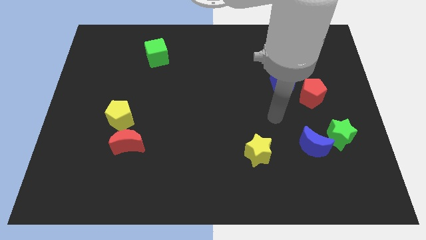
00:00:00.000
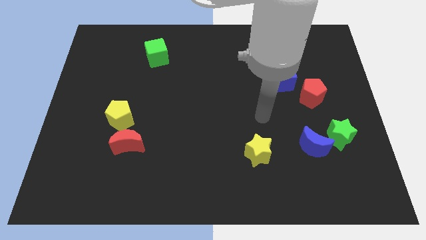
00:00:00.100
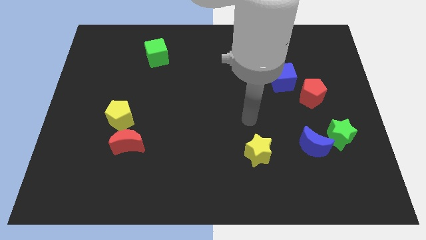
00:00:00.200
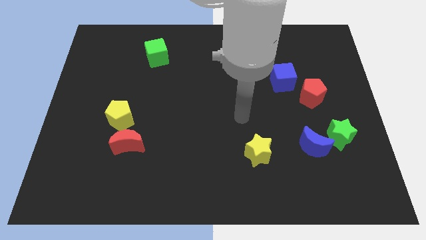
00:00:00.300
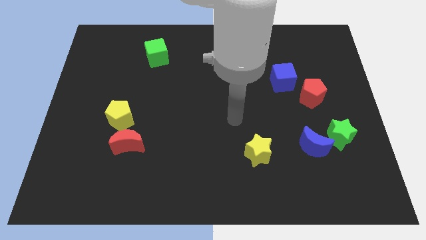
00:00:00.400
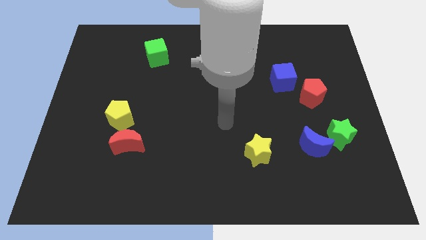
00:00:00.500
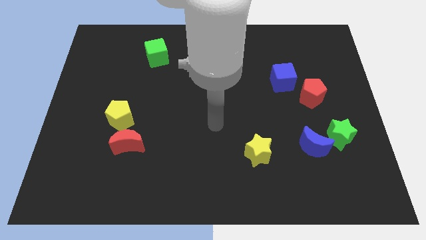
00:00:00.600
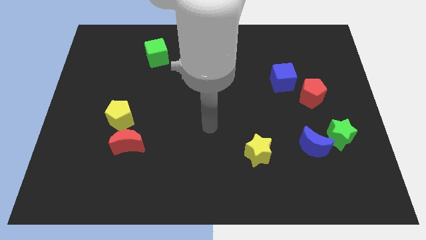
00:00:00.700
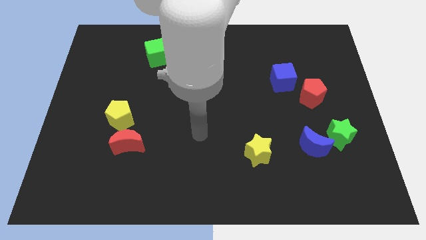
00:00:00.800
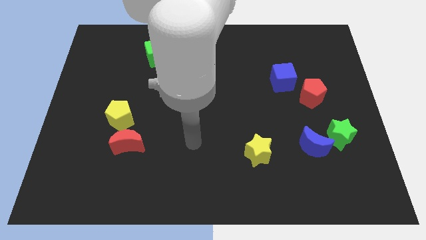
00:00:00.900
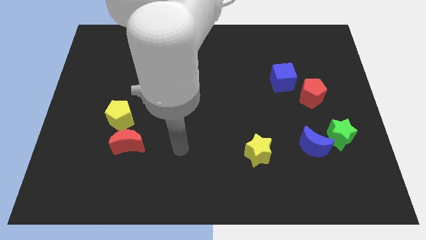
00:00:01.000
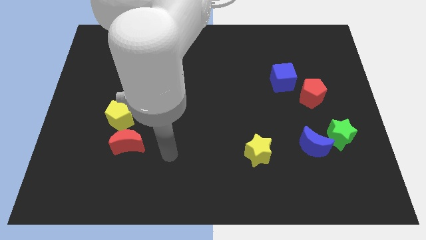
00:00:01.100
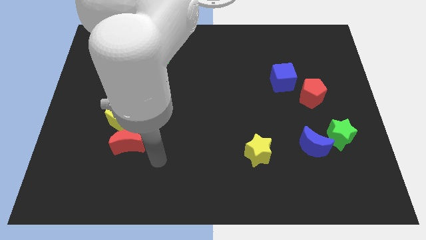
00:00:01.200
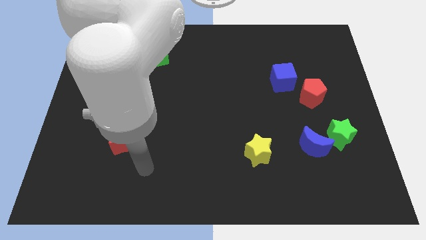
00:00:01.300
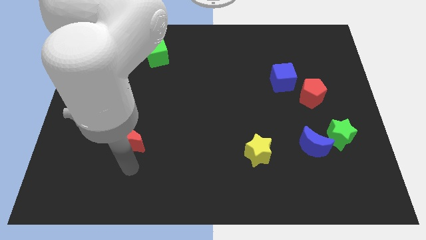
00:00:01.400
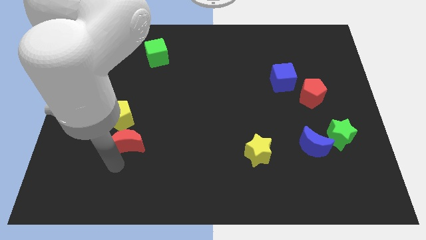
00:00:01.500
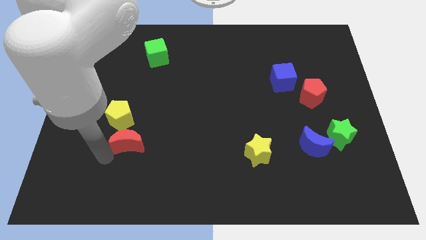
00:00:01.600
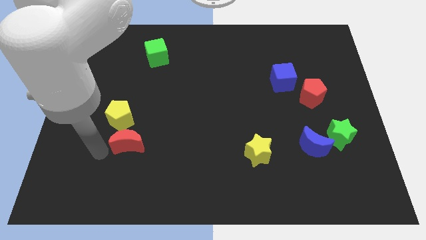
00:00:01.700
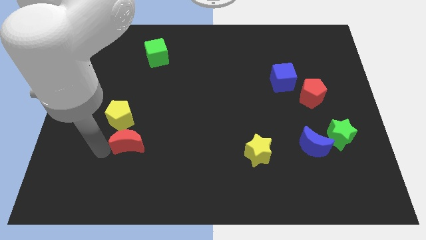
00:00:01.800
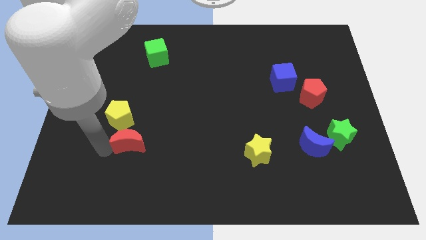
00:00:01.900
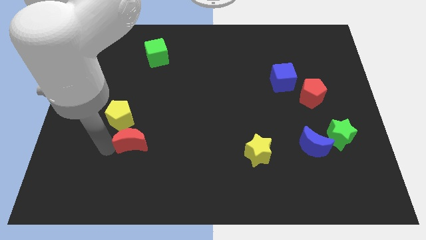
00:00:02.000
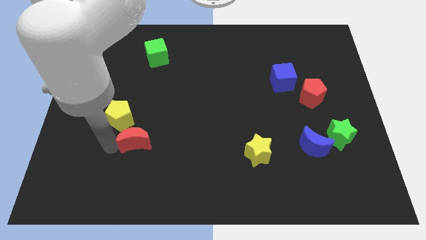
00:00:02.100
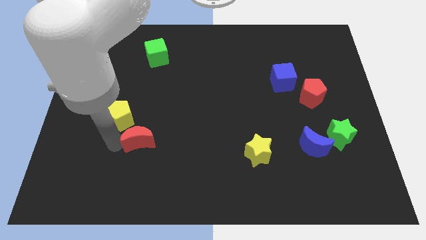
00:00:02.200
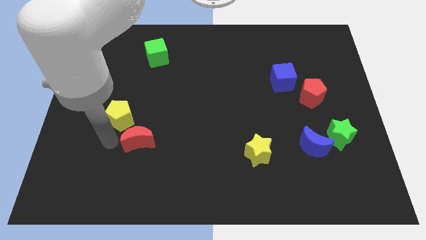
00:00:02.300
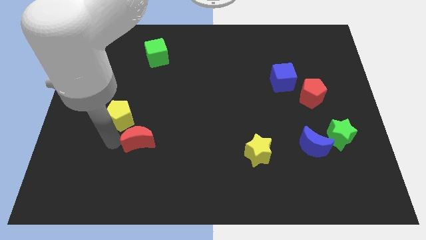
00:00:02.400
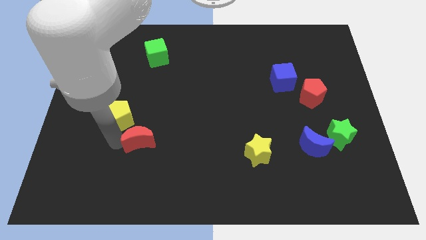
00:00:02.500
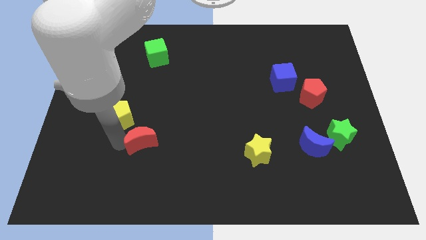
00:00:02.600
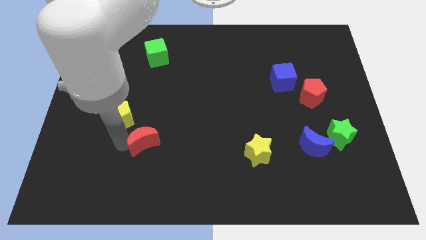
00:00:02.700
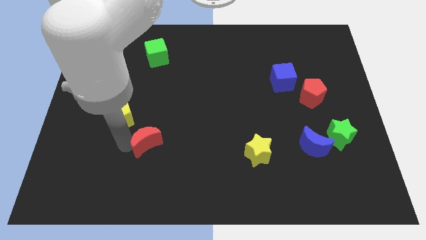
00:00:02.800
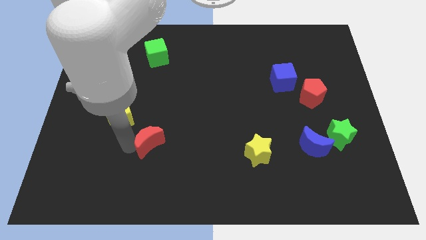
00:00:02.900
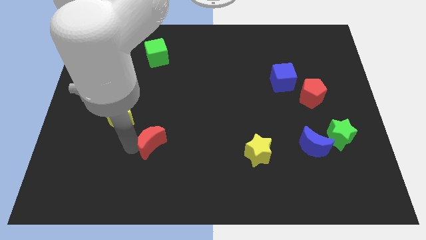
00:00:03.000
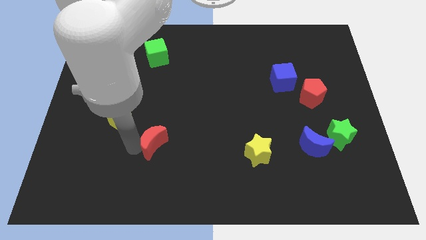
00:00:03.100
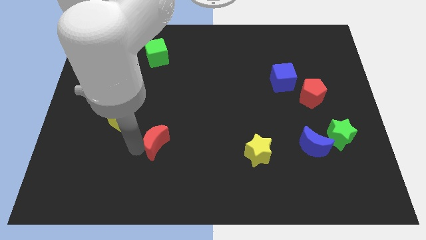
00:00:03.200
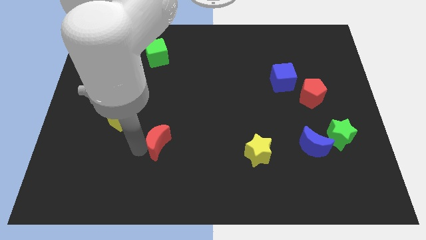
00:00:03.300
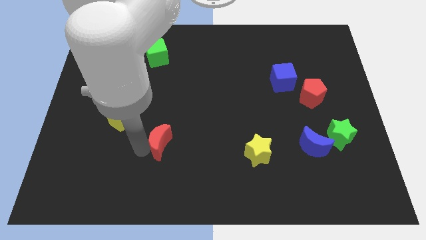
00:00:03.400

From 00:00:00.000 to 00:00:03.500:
slightly slide the red moon right

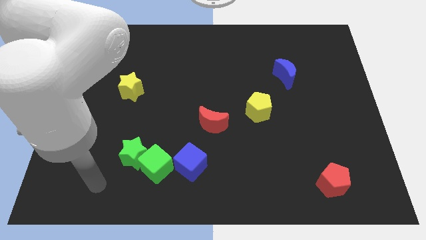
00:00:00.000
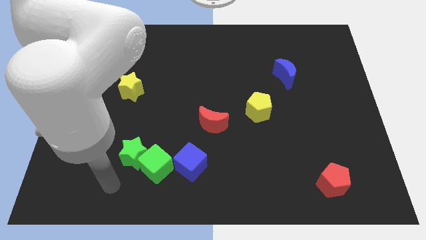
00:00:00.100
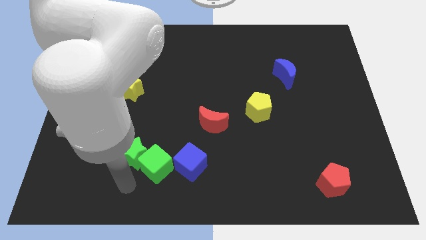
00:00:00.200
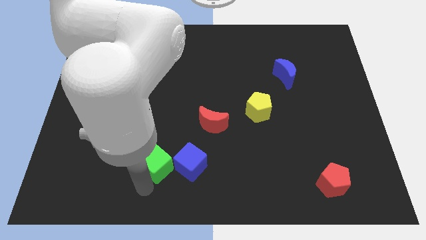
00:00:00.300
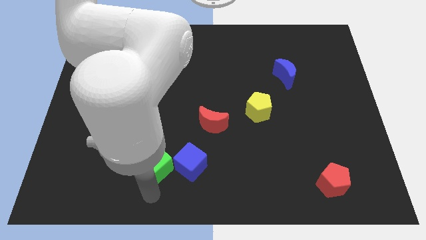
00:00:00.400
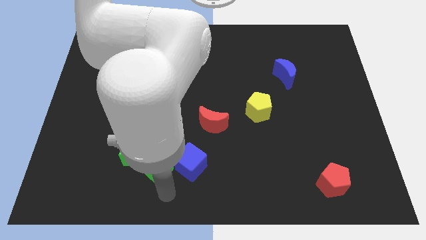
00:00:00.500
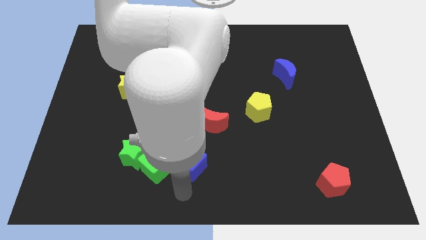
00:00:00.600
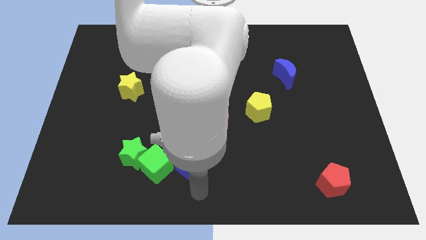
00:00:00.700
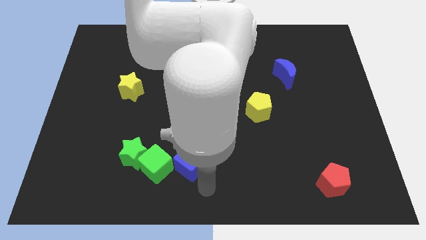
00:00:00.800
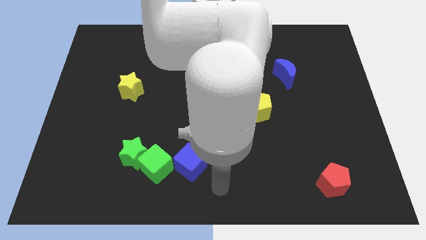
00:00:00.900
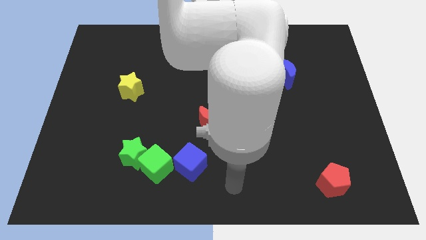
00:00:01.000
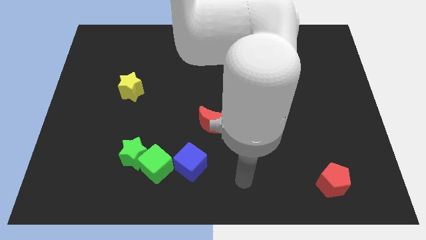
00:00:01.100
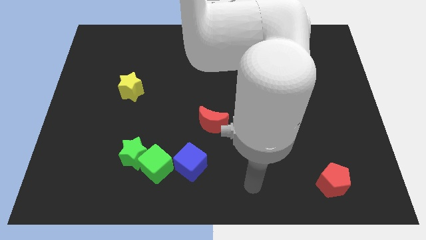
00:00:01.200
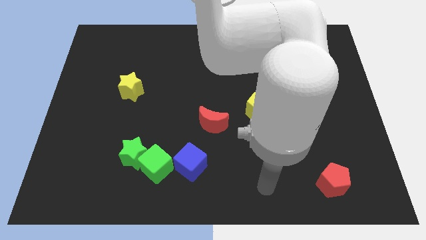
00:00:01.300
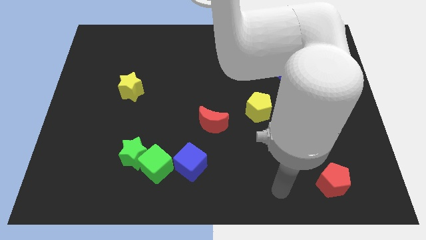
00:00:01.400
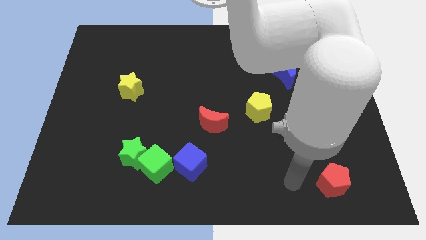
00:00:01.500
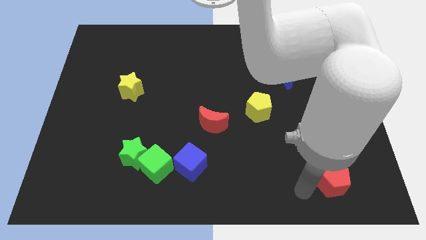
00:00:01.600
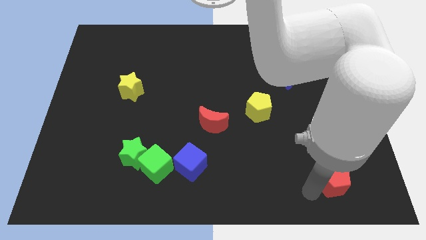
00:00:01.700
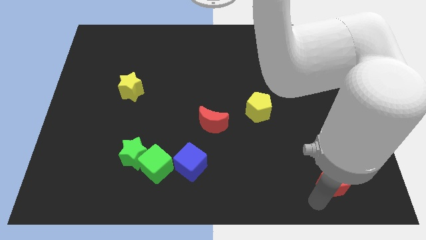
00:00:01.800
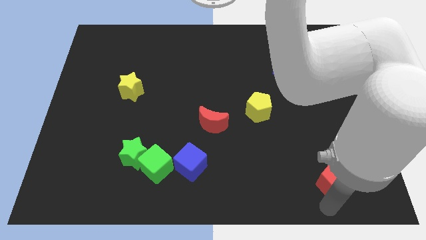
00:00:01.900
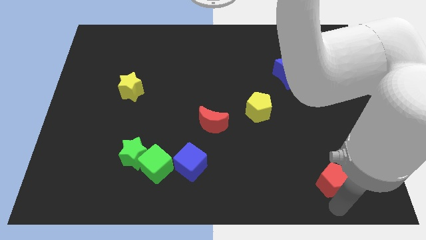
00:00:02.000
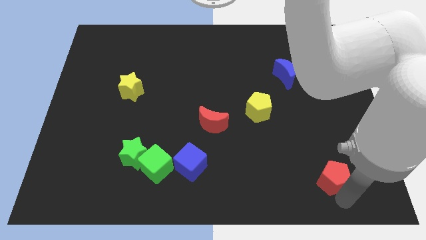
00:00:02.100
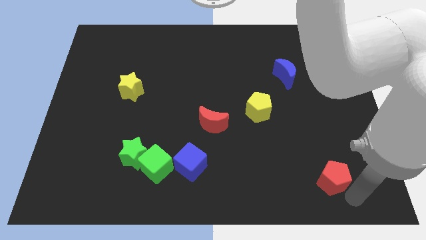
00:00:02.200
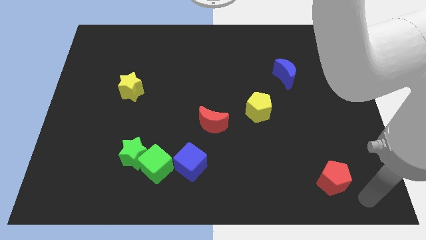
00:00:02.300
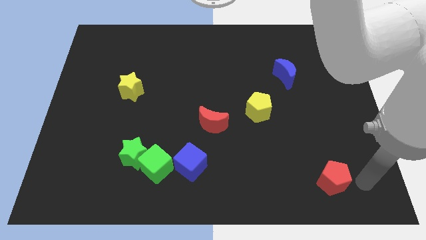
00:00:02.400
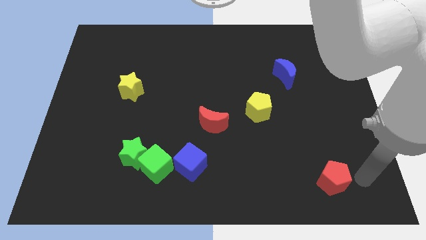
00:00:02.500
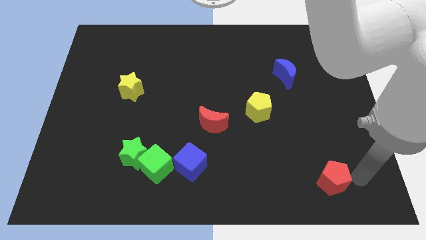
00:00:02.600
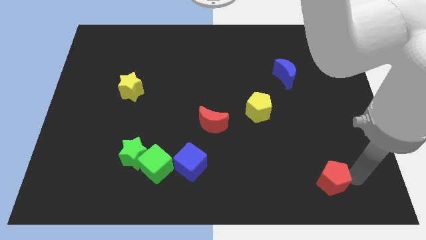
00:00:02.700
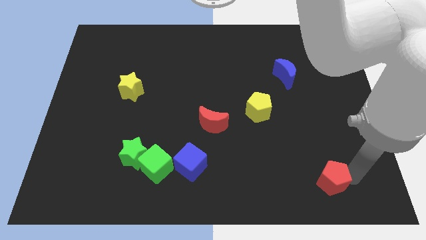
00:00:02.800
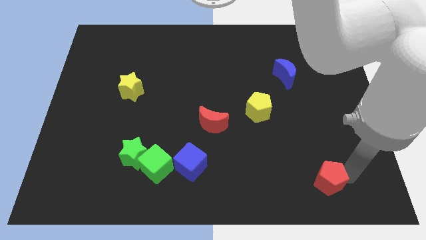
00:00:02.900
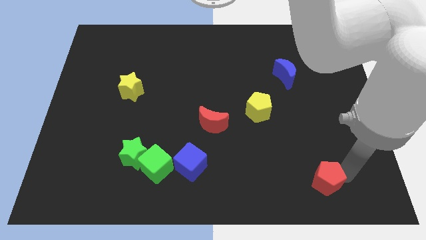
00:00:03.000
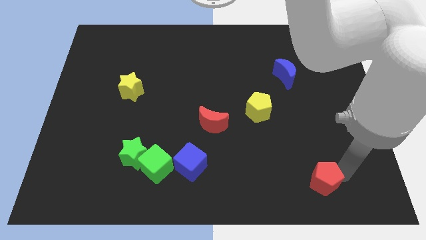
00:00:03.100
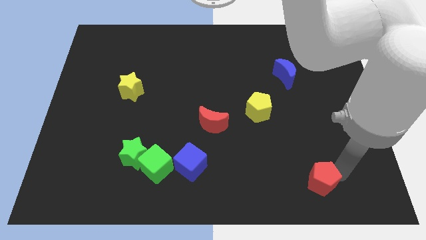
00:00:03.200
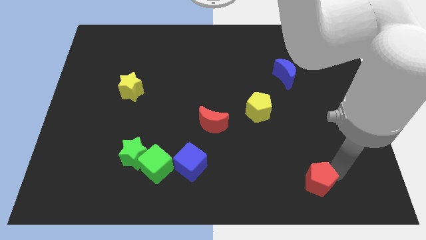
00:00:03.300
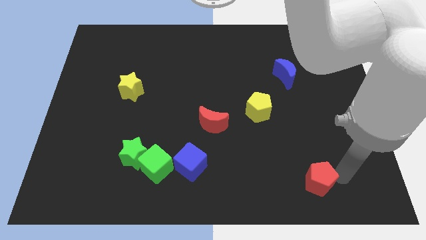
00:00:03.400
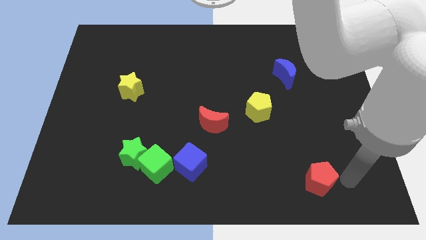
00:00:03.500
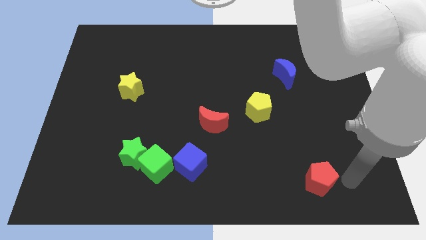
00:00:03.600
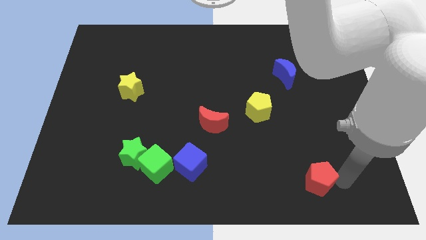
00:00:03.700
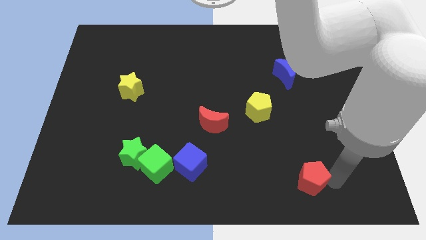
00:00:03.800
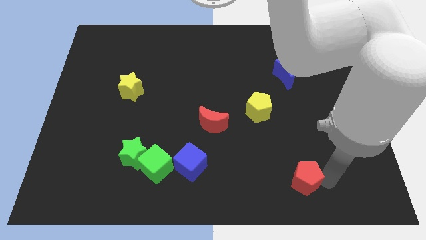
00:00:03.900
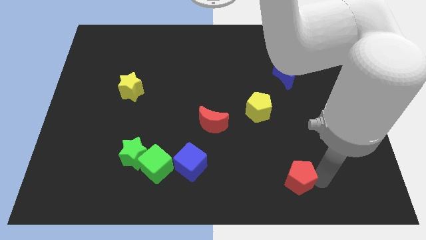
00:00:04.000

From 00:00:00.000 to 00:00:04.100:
slide the red pentagon to the left slightly

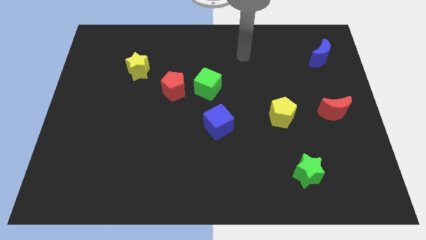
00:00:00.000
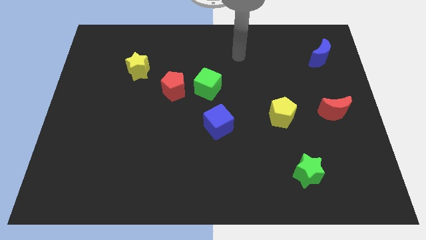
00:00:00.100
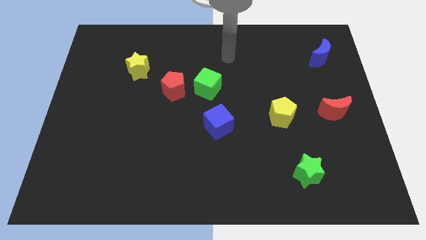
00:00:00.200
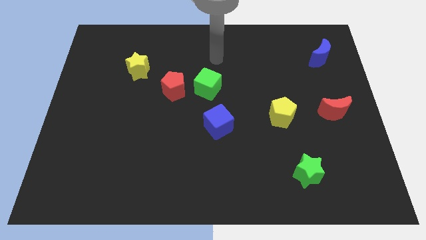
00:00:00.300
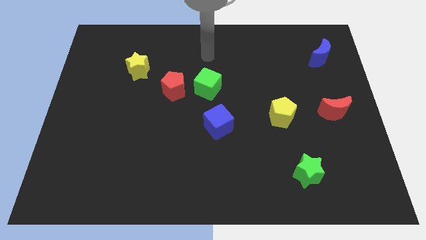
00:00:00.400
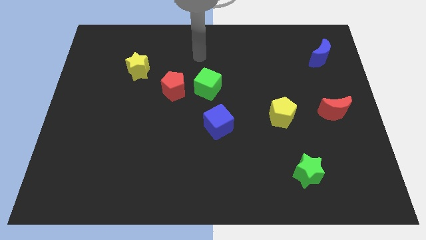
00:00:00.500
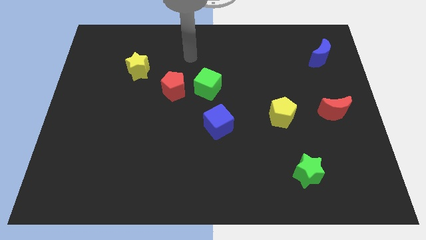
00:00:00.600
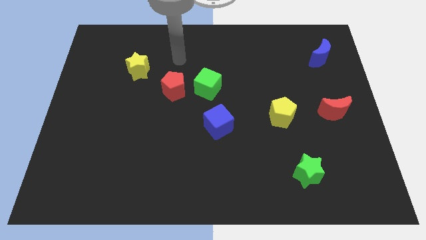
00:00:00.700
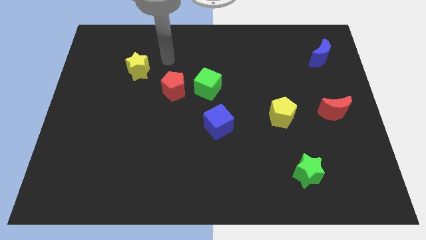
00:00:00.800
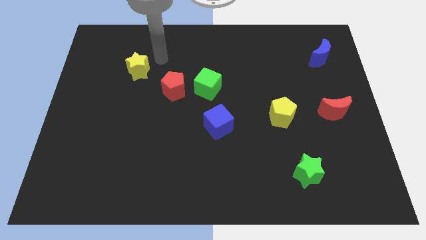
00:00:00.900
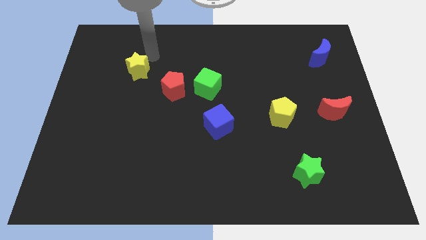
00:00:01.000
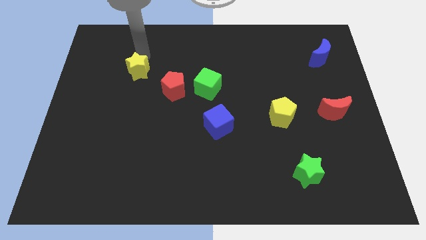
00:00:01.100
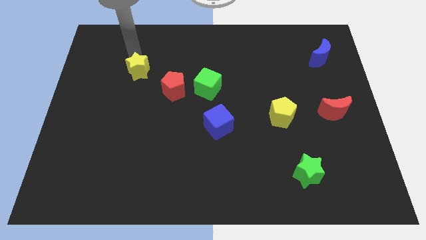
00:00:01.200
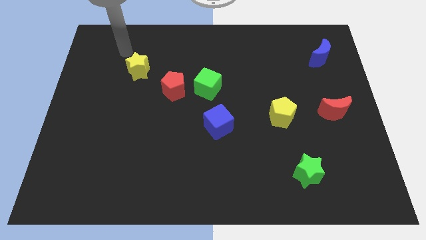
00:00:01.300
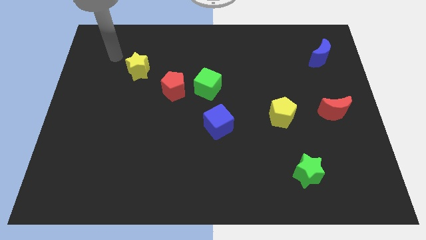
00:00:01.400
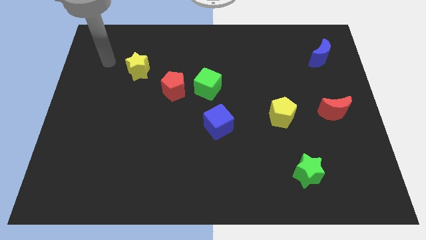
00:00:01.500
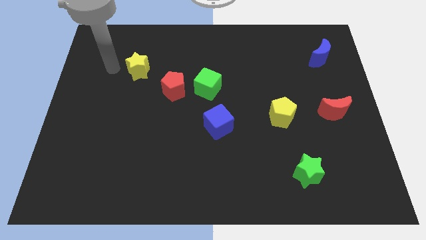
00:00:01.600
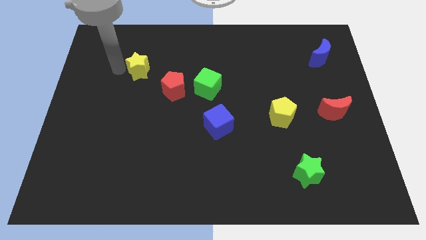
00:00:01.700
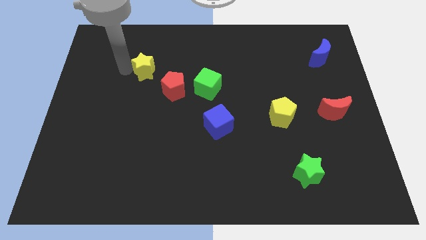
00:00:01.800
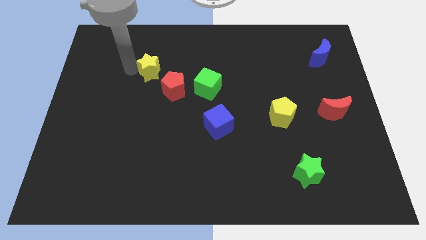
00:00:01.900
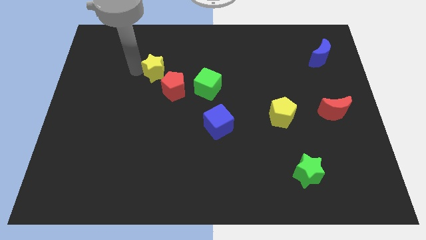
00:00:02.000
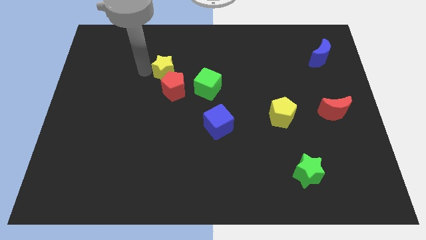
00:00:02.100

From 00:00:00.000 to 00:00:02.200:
slide the yellow star a little bit to the right
